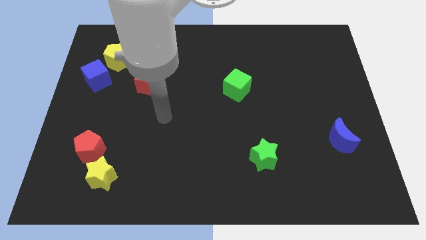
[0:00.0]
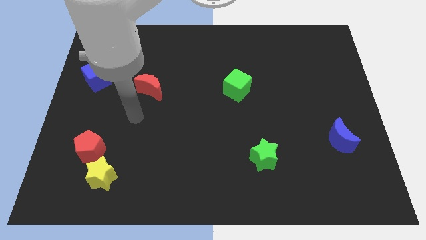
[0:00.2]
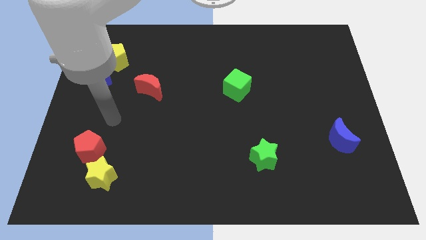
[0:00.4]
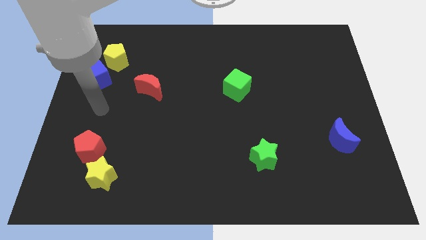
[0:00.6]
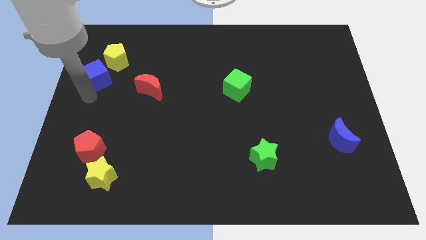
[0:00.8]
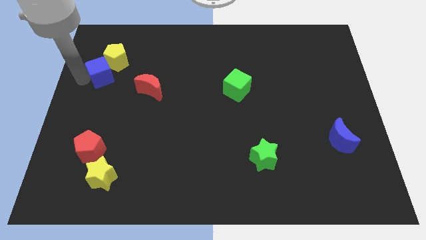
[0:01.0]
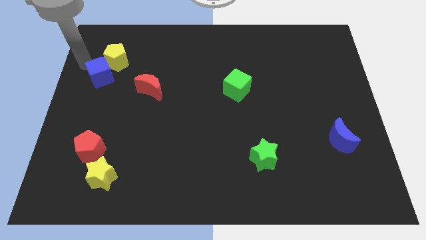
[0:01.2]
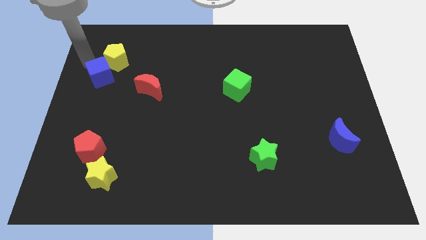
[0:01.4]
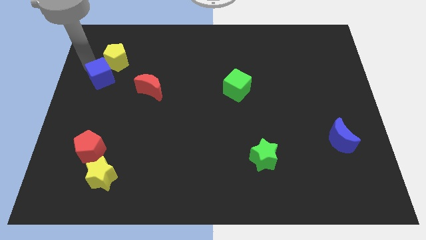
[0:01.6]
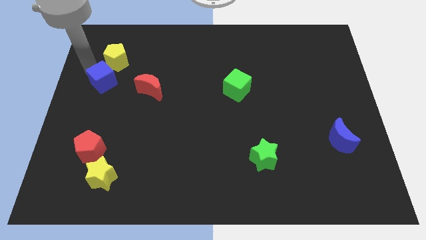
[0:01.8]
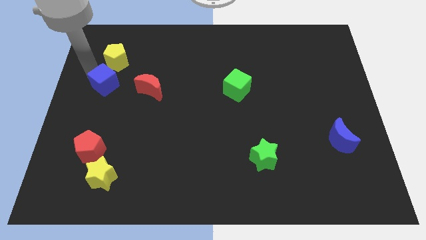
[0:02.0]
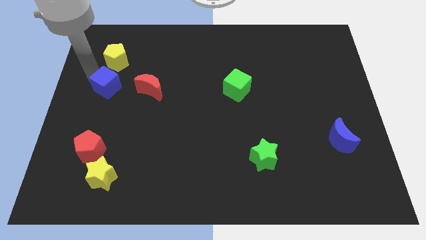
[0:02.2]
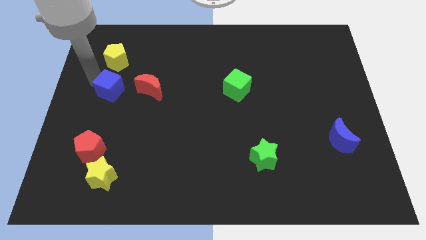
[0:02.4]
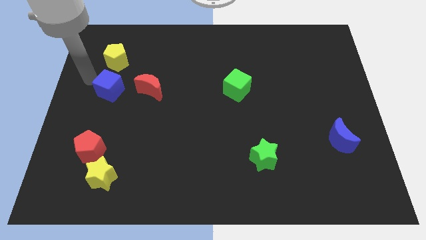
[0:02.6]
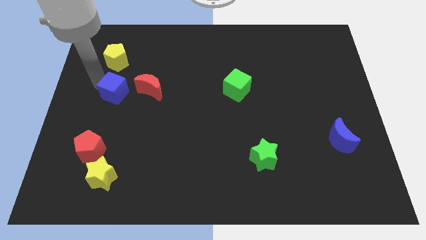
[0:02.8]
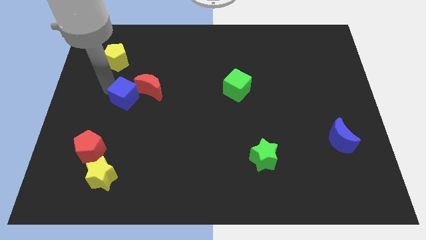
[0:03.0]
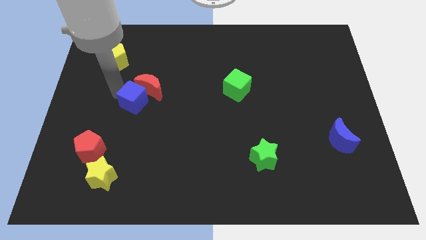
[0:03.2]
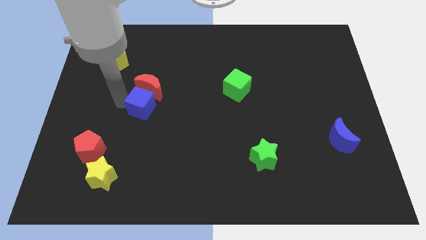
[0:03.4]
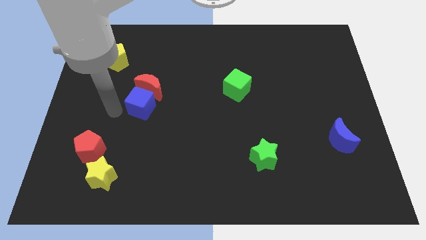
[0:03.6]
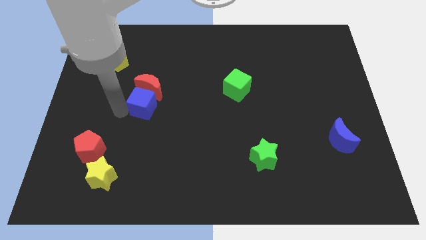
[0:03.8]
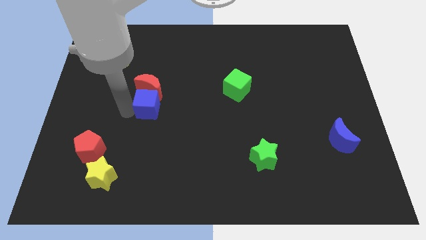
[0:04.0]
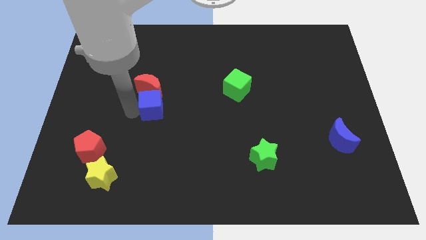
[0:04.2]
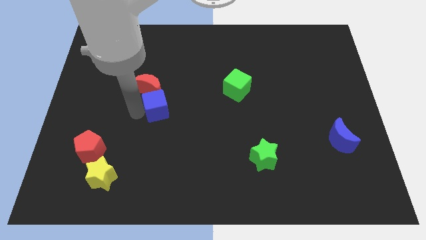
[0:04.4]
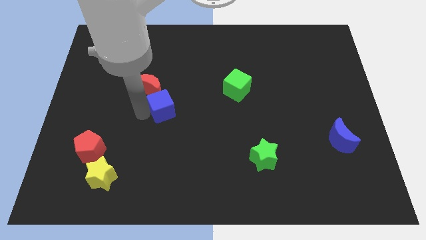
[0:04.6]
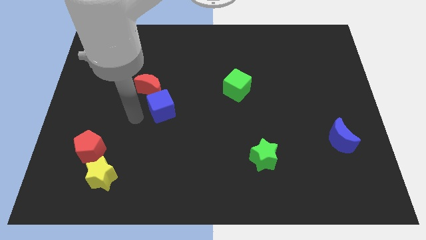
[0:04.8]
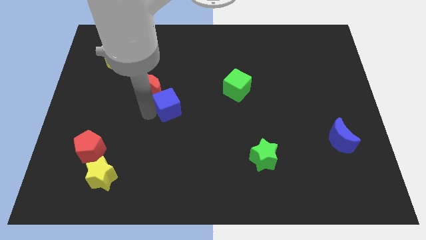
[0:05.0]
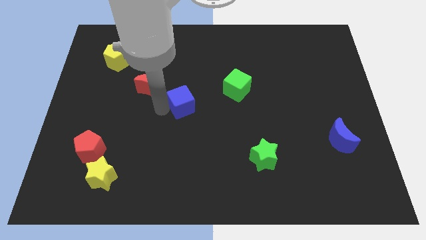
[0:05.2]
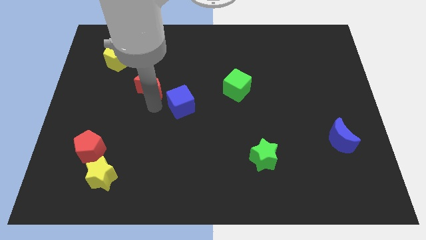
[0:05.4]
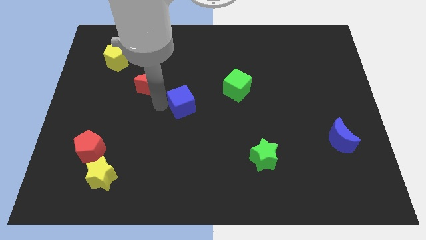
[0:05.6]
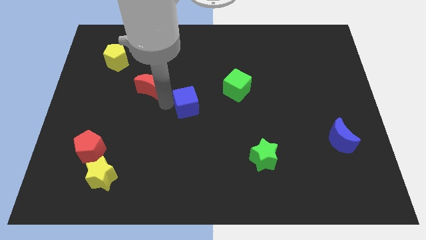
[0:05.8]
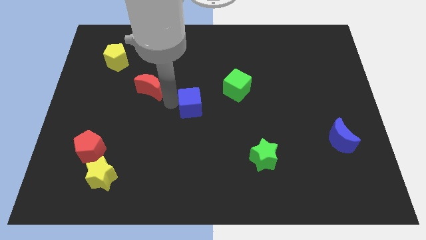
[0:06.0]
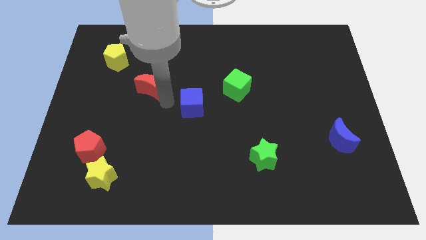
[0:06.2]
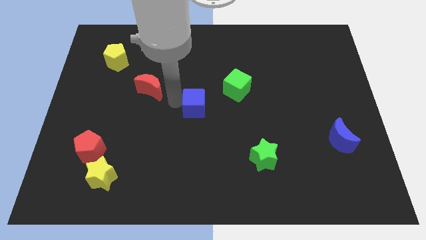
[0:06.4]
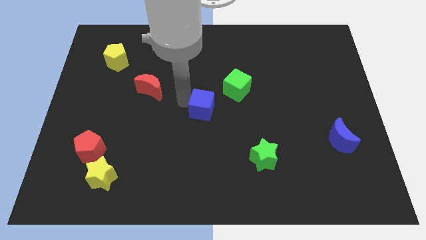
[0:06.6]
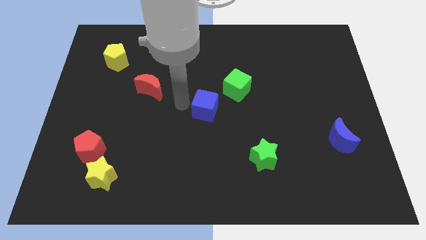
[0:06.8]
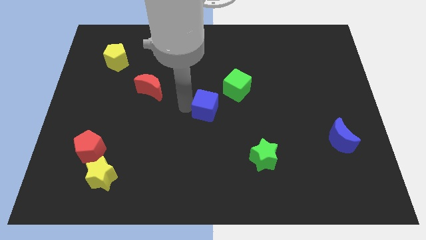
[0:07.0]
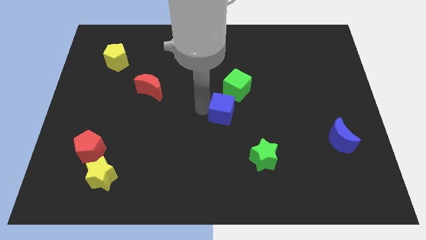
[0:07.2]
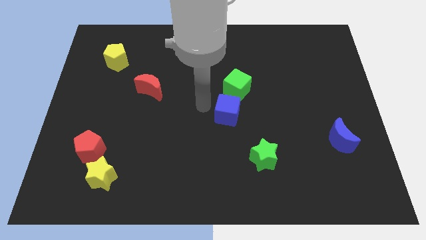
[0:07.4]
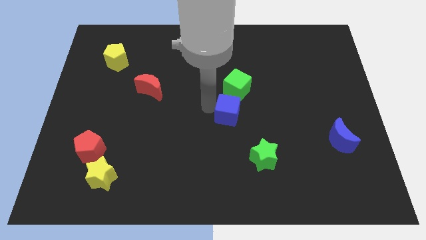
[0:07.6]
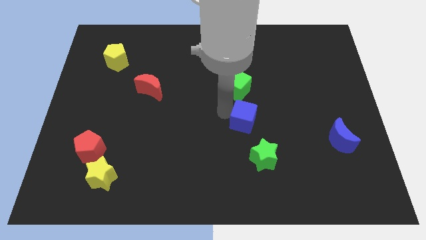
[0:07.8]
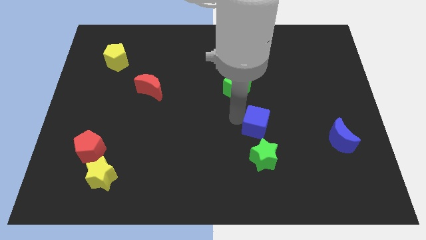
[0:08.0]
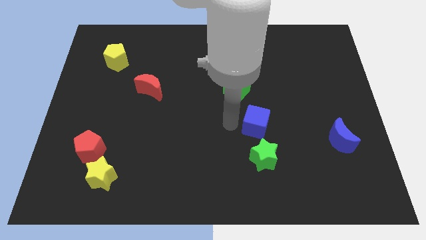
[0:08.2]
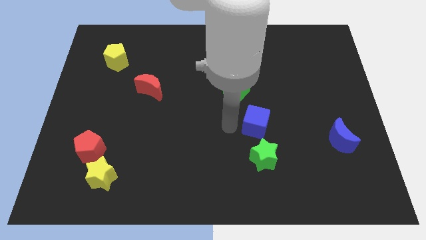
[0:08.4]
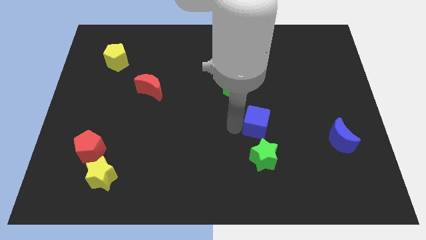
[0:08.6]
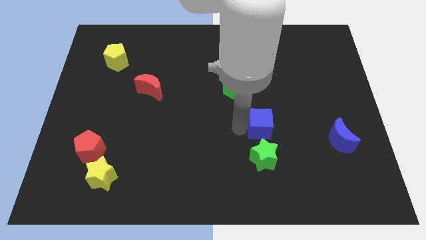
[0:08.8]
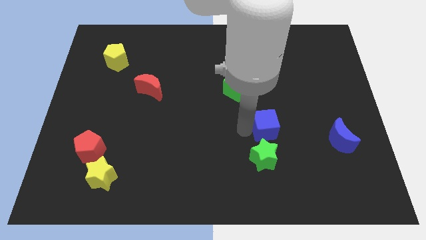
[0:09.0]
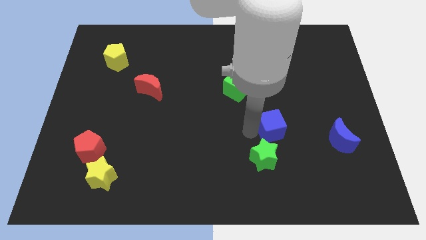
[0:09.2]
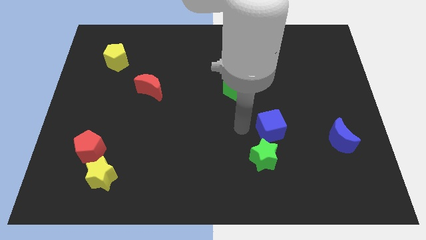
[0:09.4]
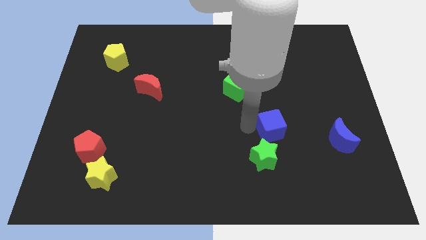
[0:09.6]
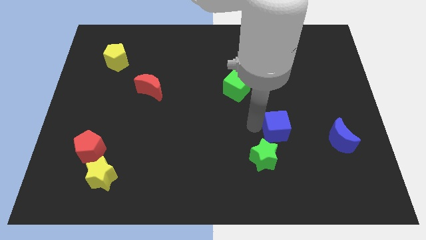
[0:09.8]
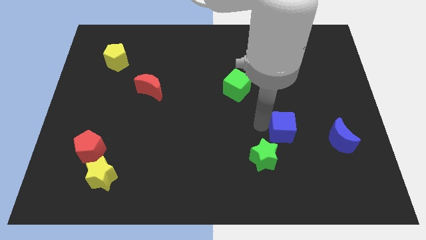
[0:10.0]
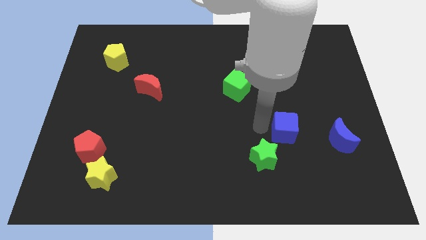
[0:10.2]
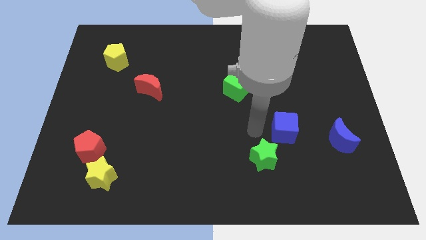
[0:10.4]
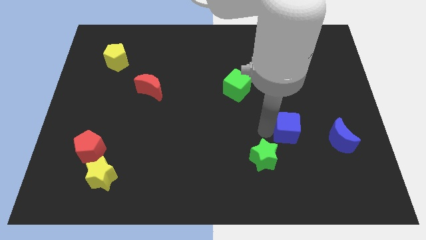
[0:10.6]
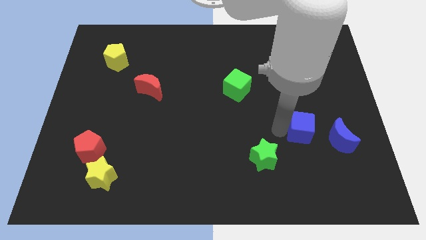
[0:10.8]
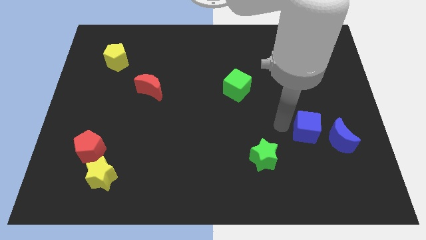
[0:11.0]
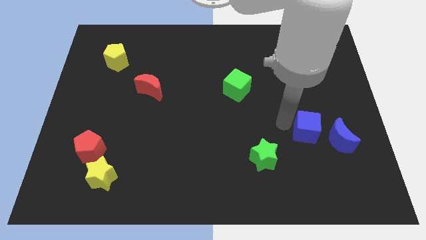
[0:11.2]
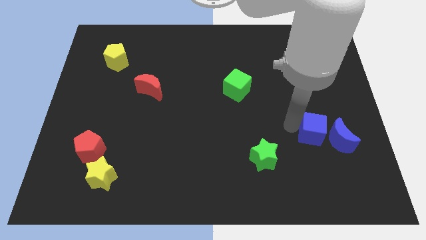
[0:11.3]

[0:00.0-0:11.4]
move the blue cube towards the blue moon
